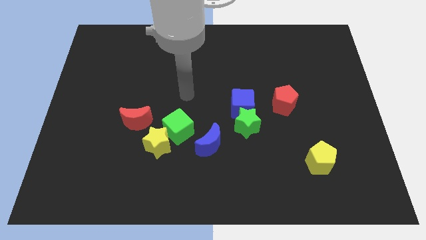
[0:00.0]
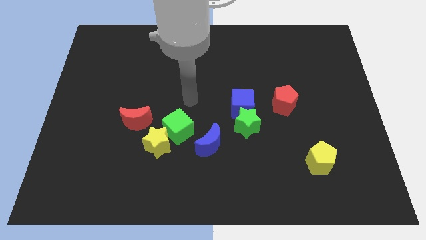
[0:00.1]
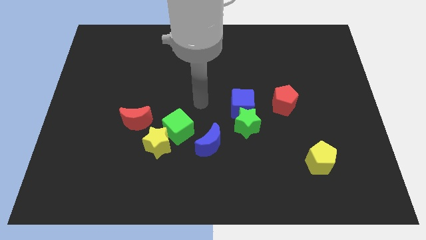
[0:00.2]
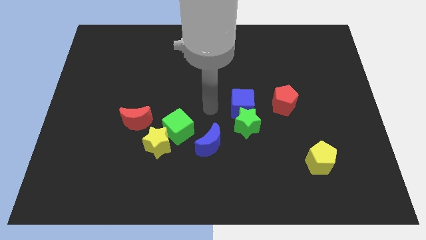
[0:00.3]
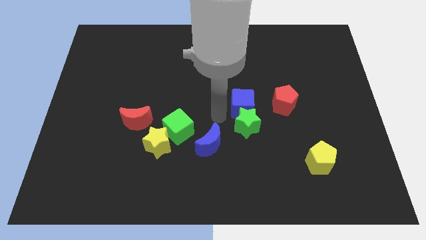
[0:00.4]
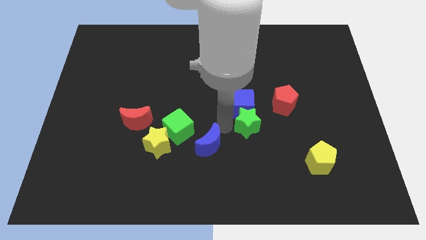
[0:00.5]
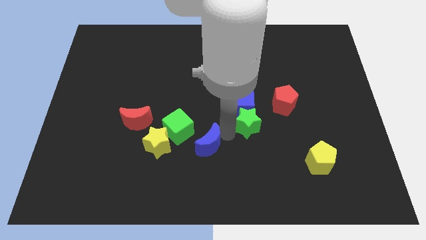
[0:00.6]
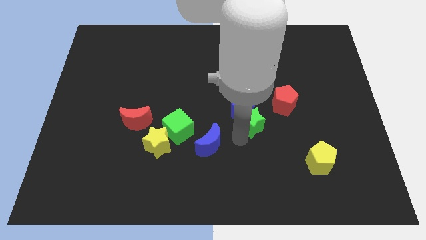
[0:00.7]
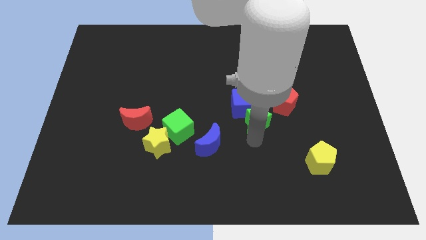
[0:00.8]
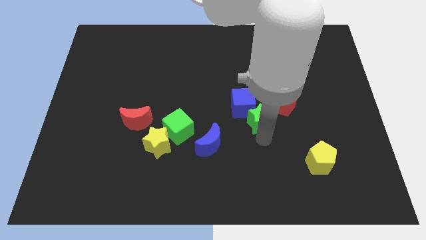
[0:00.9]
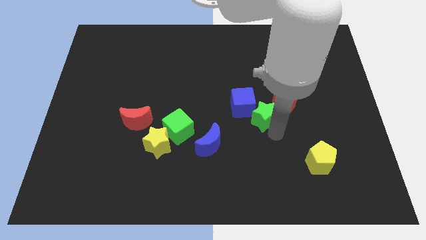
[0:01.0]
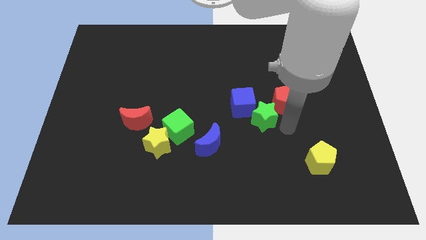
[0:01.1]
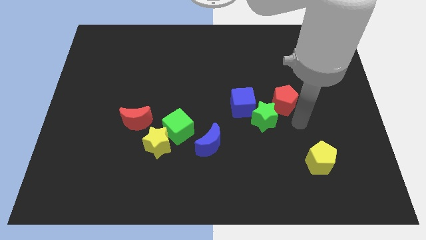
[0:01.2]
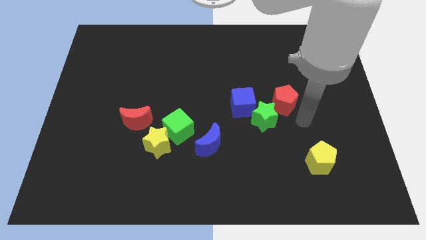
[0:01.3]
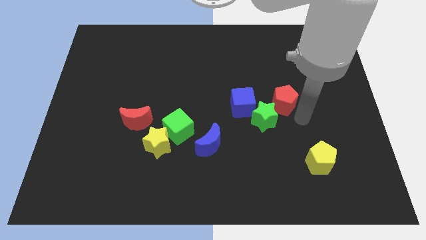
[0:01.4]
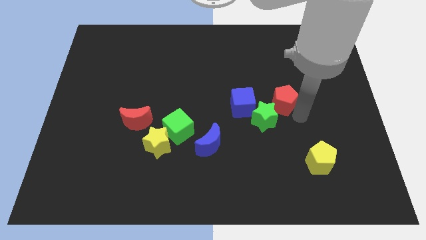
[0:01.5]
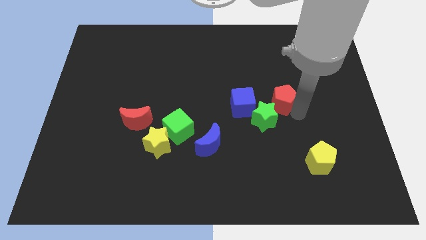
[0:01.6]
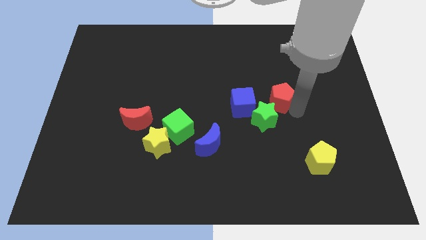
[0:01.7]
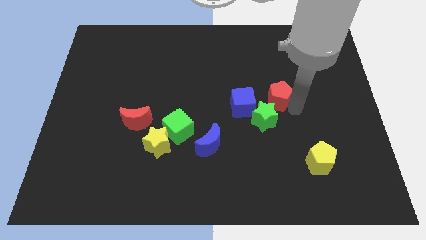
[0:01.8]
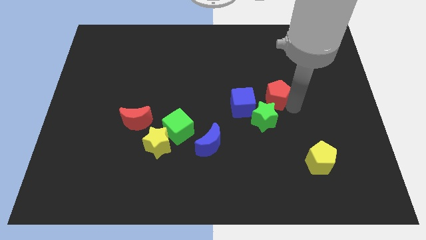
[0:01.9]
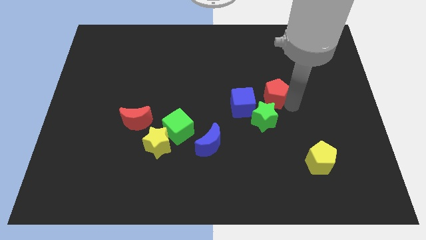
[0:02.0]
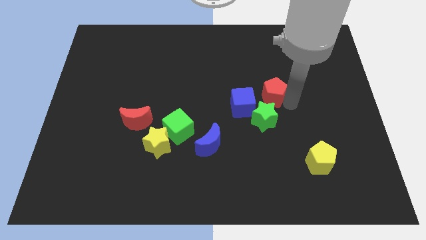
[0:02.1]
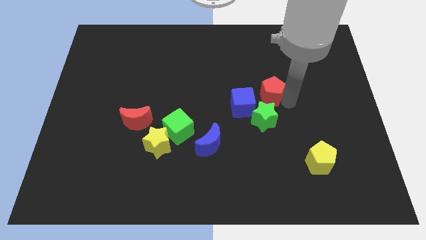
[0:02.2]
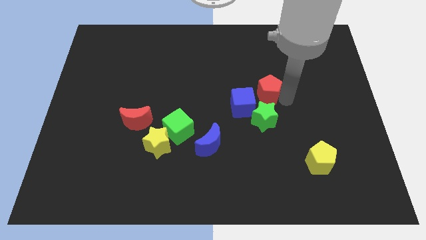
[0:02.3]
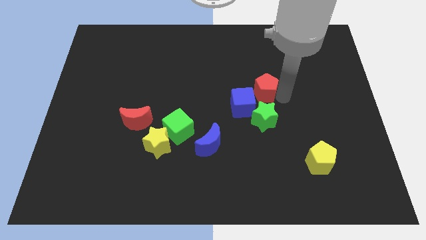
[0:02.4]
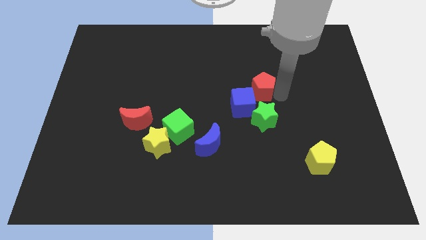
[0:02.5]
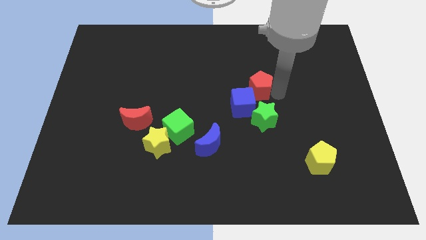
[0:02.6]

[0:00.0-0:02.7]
slightly push the red pentagon upwards and to the left diagonally

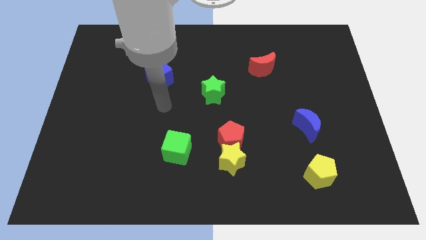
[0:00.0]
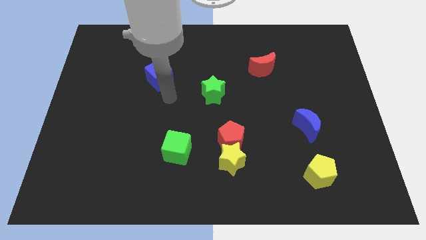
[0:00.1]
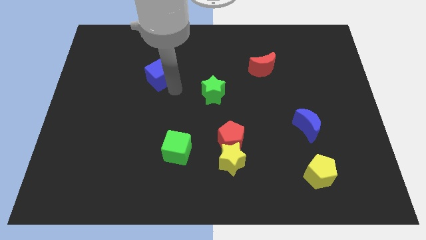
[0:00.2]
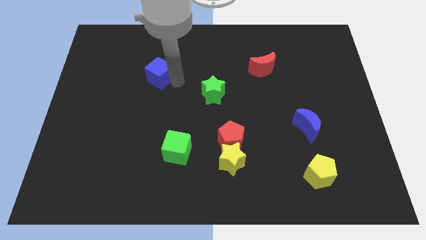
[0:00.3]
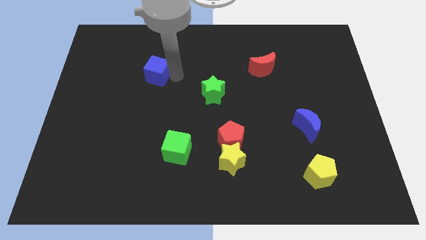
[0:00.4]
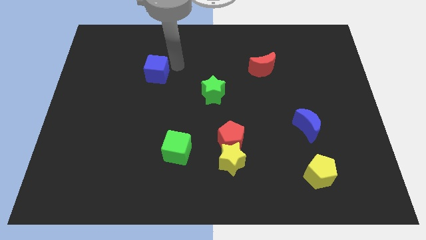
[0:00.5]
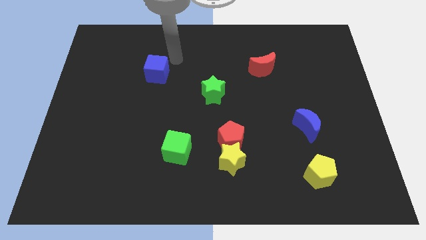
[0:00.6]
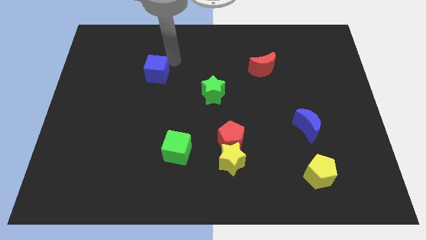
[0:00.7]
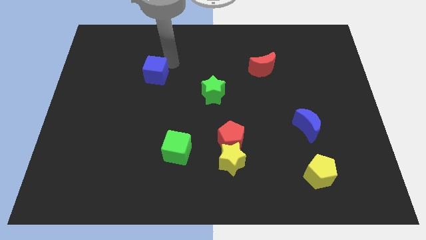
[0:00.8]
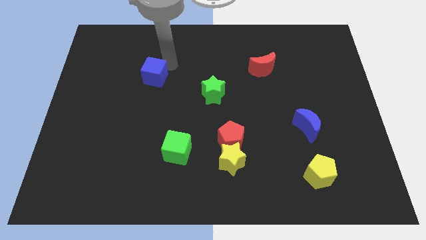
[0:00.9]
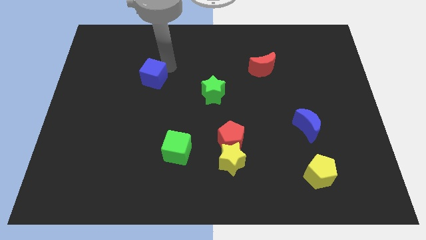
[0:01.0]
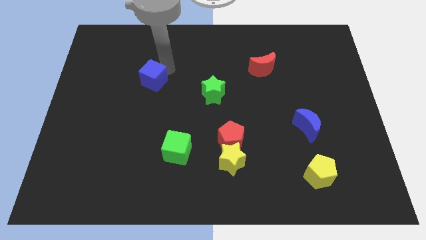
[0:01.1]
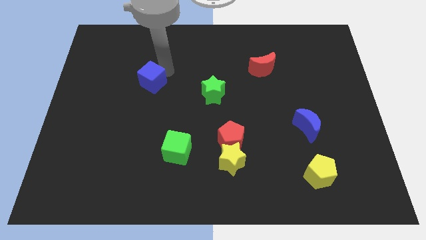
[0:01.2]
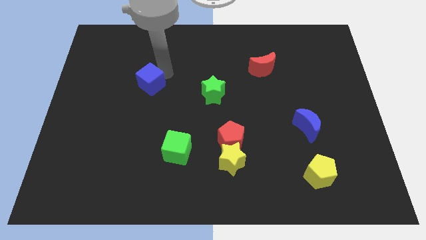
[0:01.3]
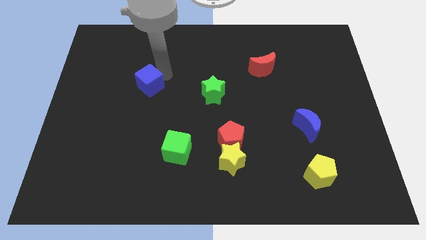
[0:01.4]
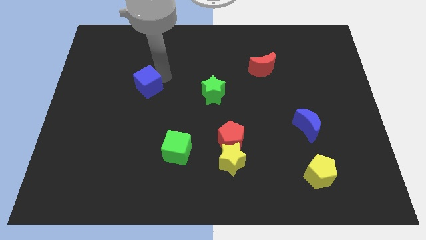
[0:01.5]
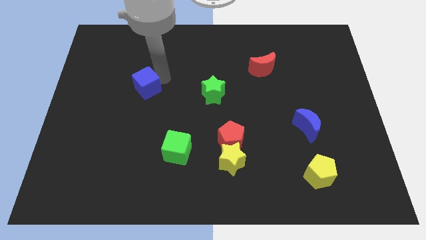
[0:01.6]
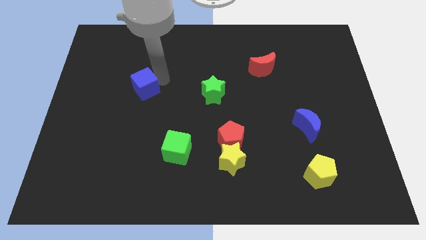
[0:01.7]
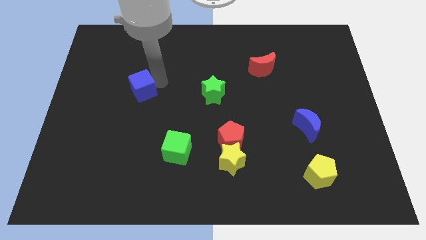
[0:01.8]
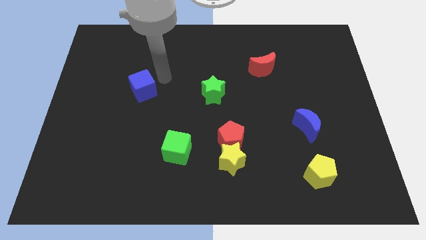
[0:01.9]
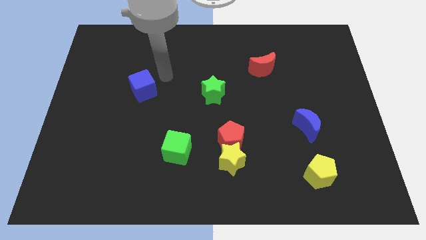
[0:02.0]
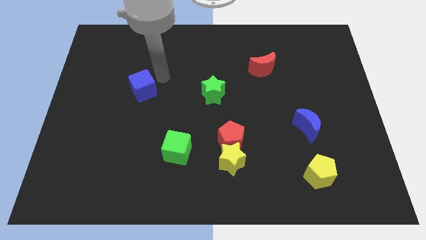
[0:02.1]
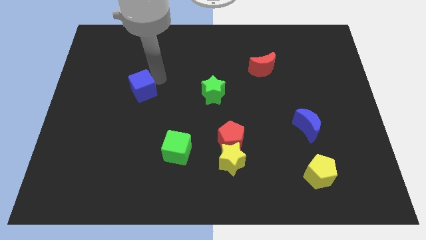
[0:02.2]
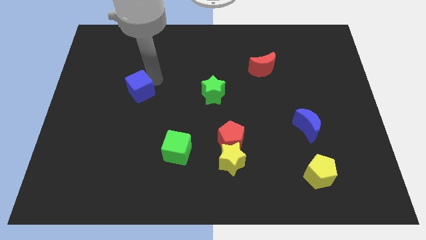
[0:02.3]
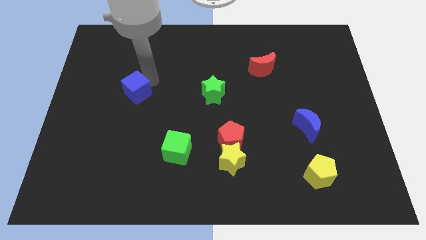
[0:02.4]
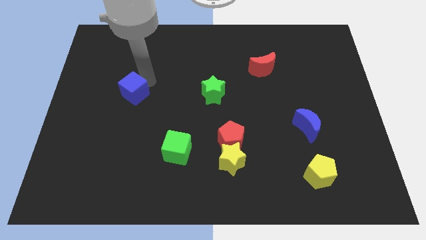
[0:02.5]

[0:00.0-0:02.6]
slightly move the blue cube down and then to the left

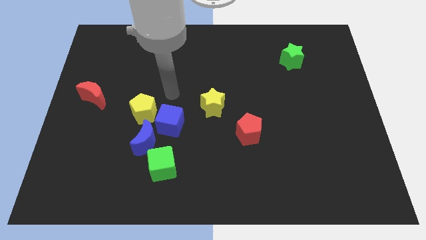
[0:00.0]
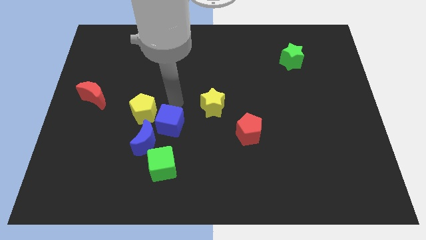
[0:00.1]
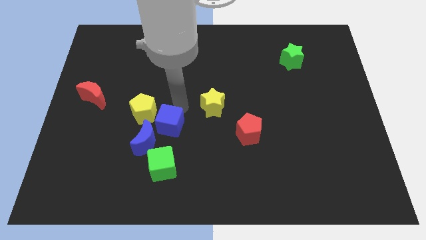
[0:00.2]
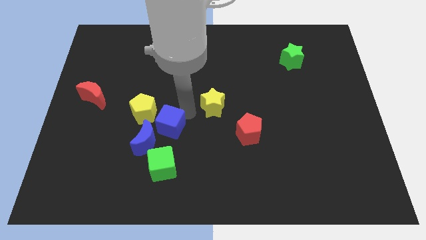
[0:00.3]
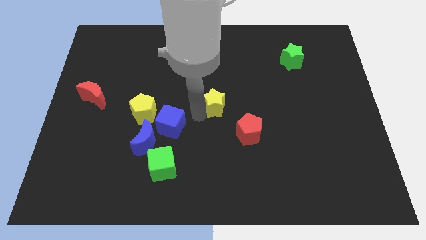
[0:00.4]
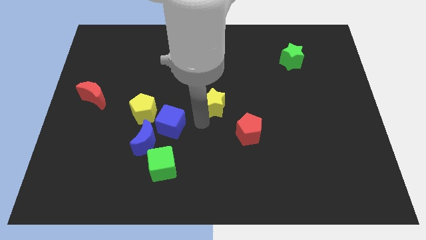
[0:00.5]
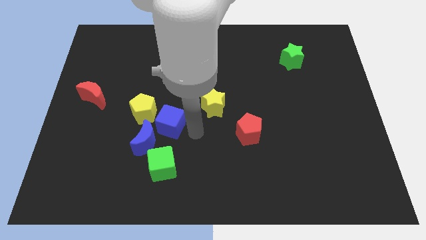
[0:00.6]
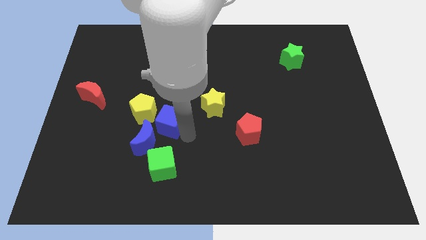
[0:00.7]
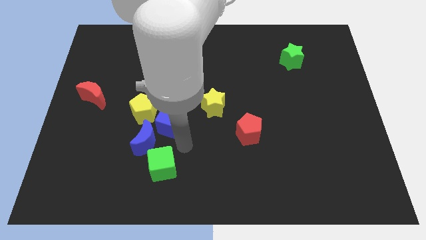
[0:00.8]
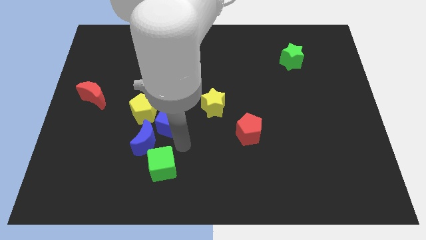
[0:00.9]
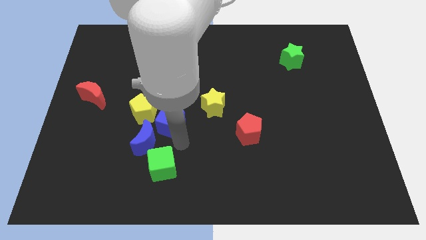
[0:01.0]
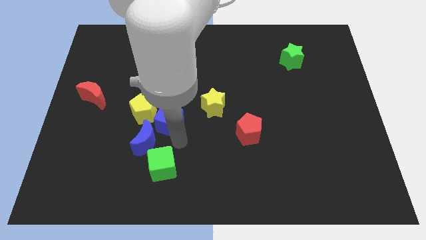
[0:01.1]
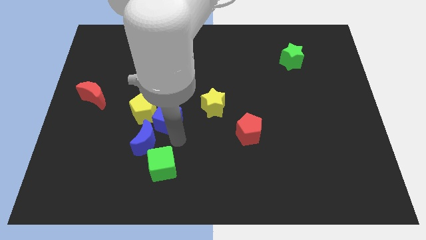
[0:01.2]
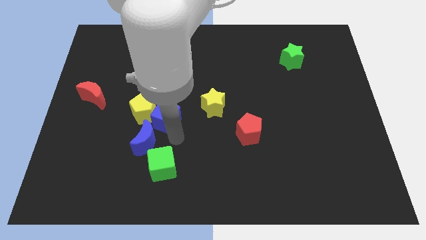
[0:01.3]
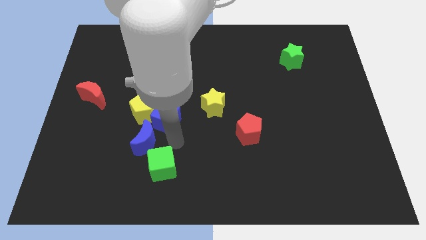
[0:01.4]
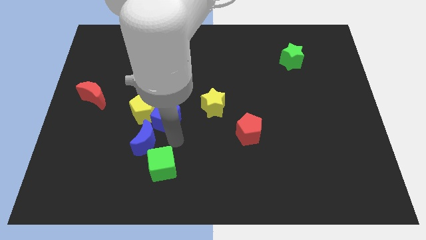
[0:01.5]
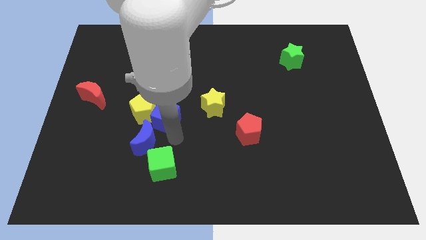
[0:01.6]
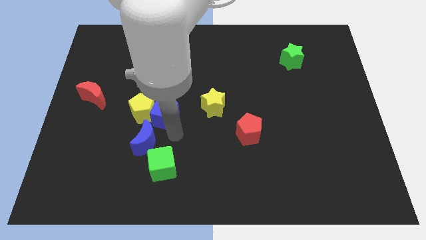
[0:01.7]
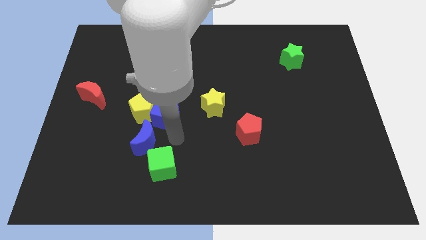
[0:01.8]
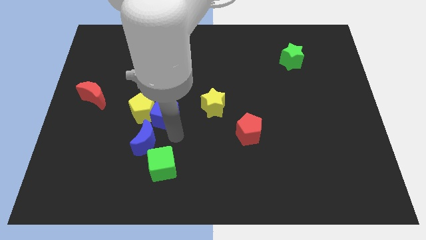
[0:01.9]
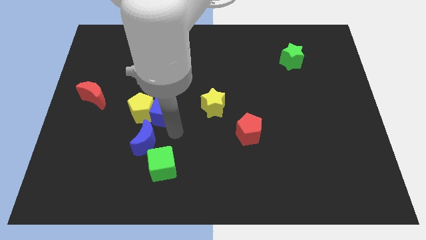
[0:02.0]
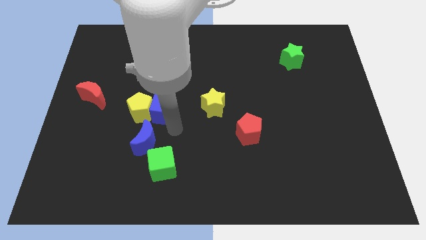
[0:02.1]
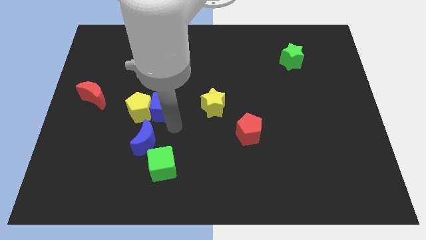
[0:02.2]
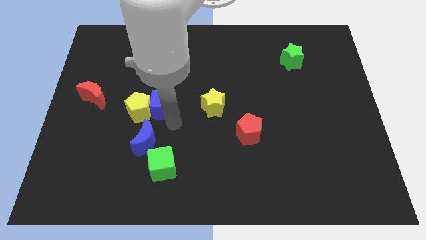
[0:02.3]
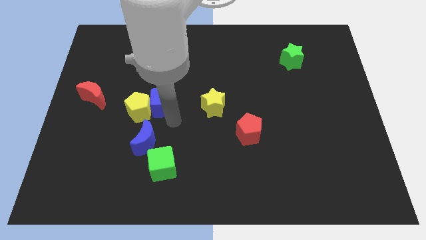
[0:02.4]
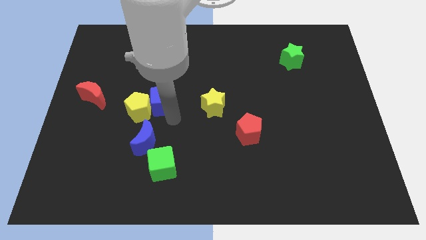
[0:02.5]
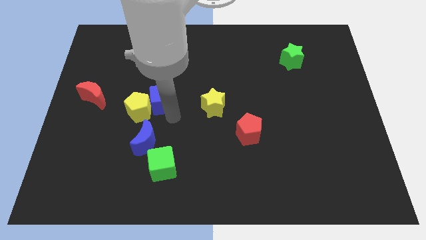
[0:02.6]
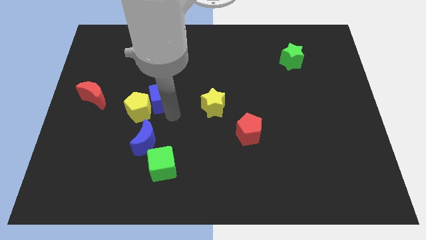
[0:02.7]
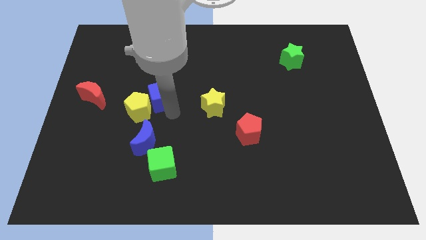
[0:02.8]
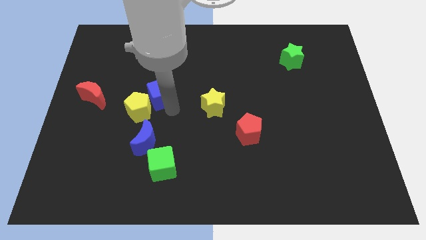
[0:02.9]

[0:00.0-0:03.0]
slightly slide the blue cube up and then left
